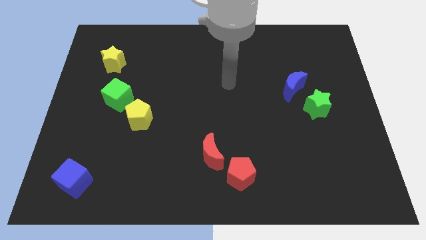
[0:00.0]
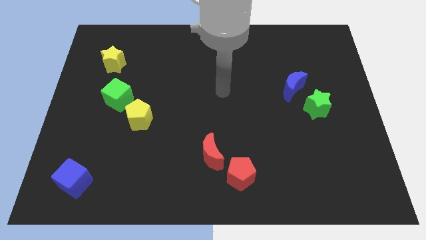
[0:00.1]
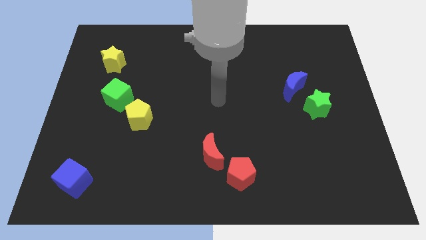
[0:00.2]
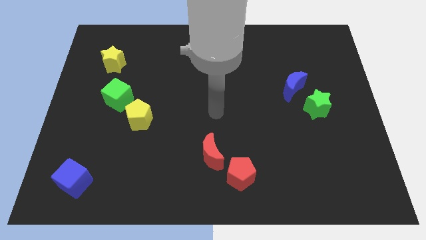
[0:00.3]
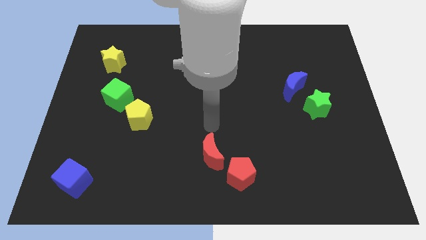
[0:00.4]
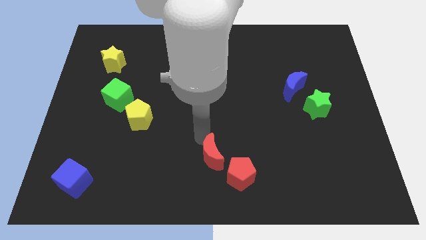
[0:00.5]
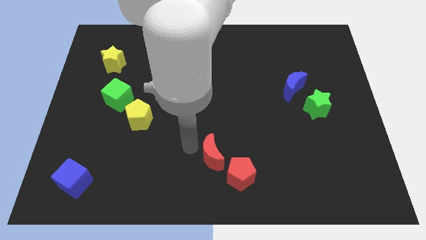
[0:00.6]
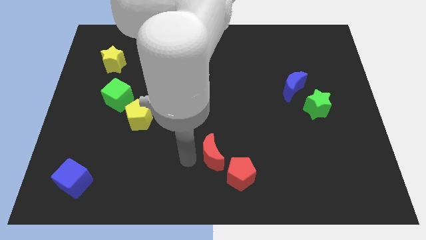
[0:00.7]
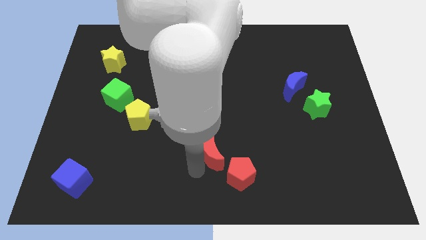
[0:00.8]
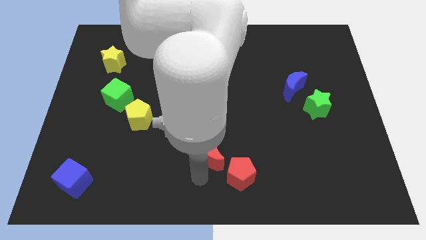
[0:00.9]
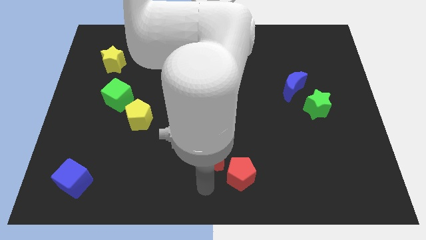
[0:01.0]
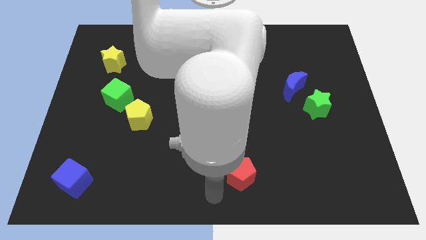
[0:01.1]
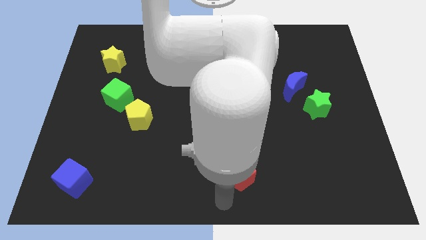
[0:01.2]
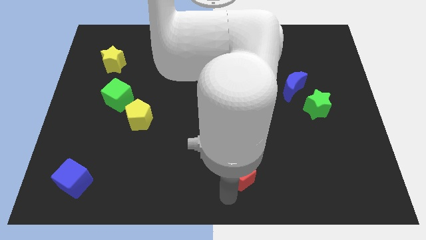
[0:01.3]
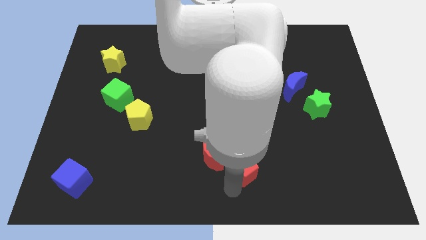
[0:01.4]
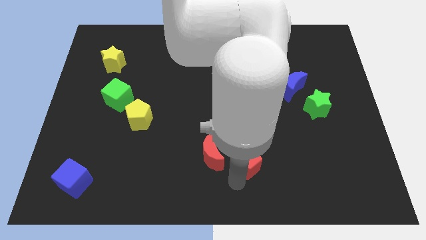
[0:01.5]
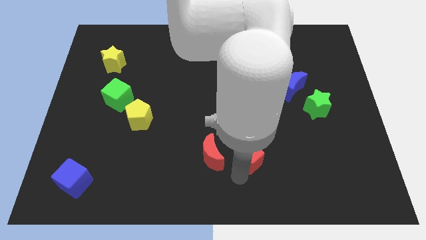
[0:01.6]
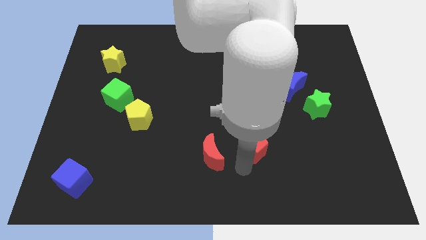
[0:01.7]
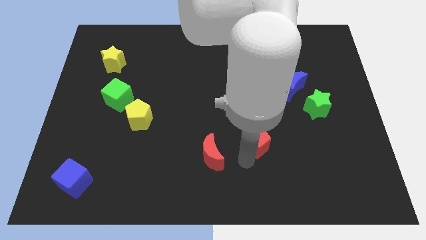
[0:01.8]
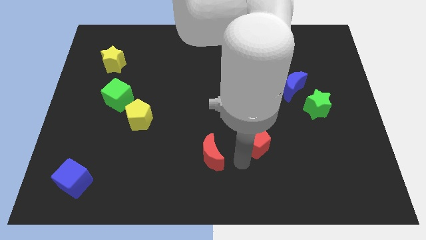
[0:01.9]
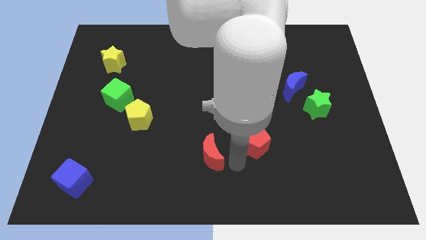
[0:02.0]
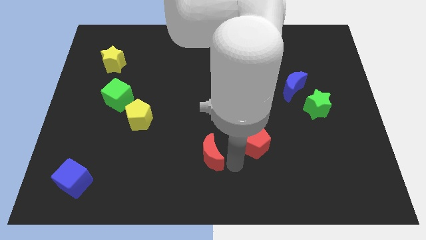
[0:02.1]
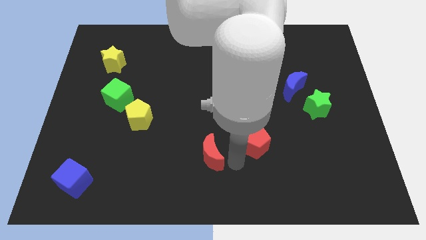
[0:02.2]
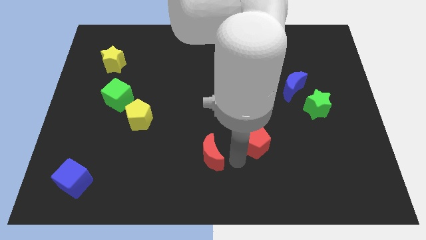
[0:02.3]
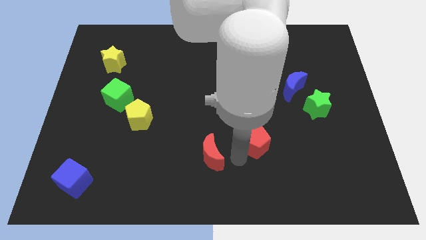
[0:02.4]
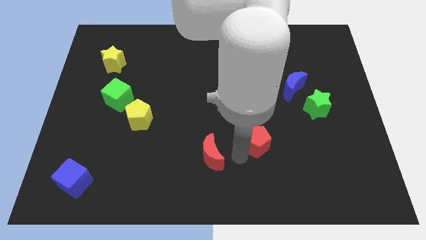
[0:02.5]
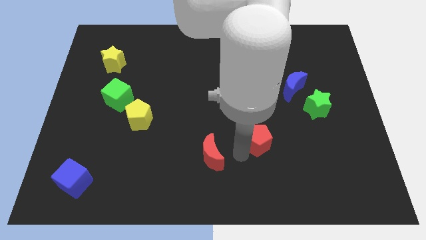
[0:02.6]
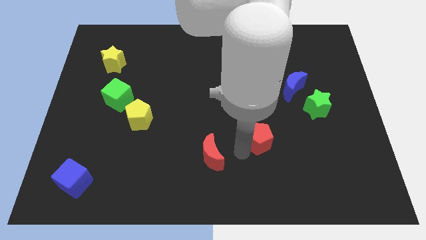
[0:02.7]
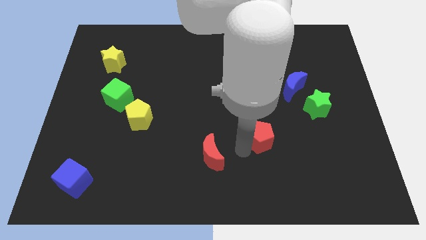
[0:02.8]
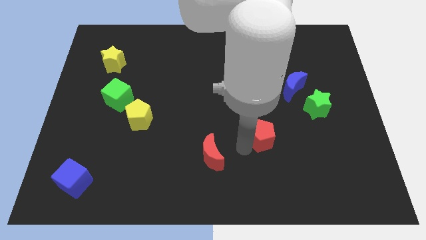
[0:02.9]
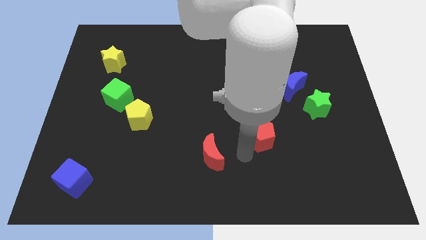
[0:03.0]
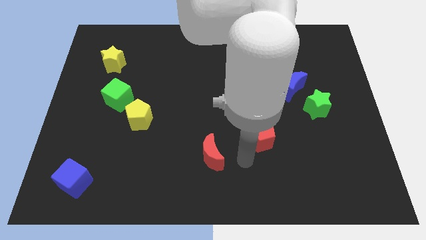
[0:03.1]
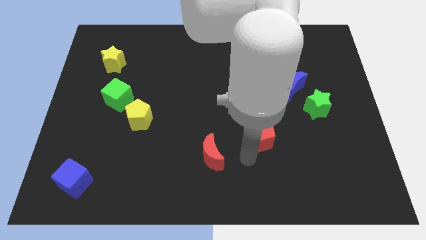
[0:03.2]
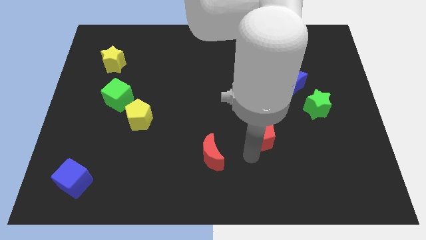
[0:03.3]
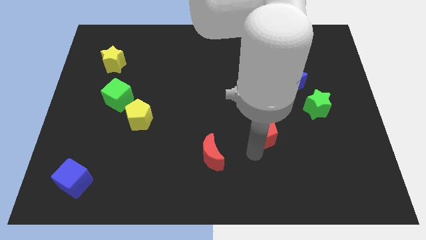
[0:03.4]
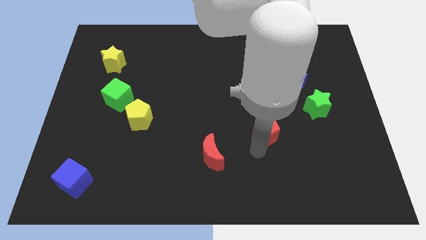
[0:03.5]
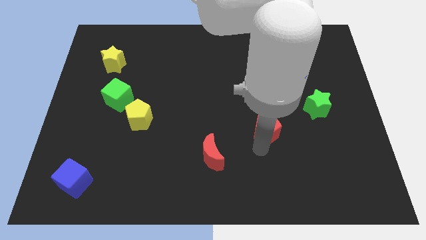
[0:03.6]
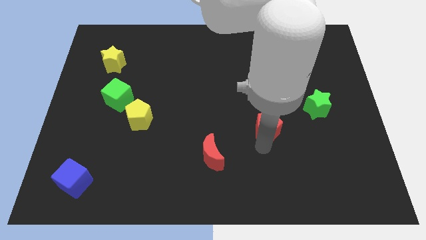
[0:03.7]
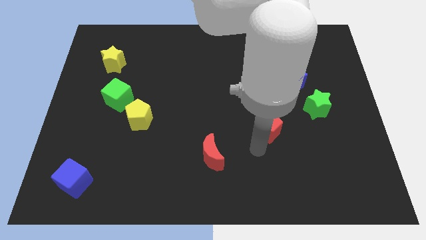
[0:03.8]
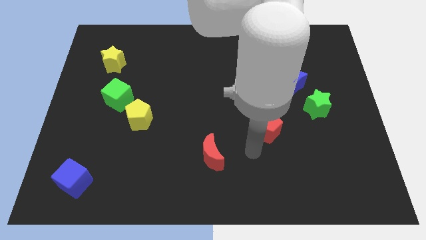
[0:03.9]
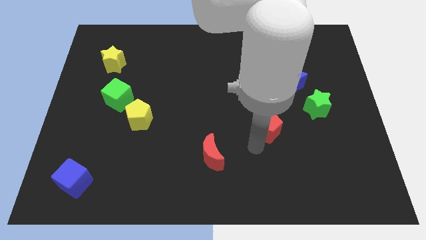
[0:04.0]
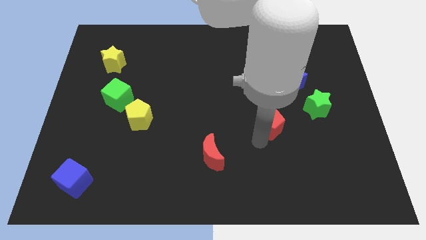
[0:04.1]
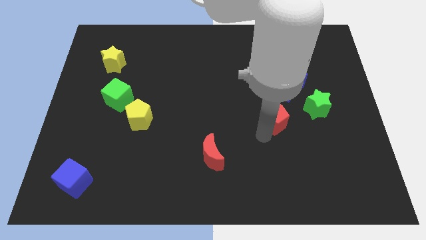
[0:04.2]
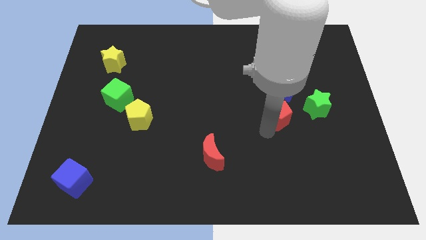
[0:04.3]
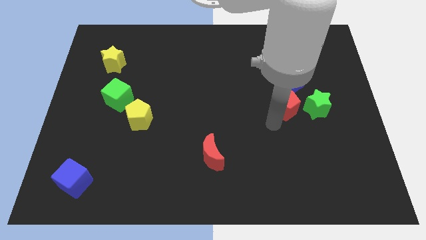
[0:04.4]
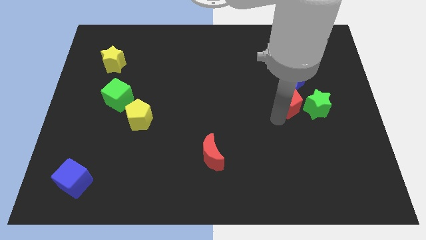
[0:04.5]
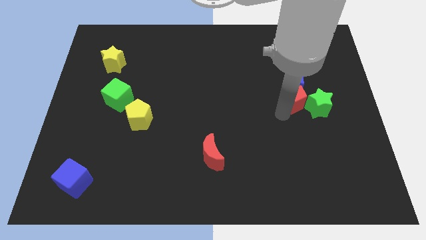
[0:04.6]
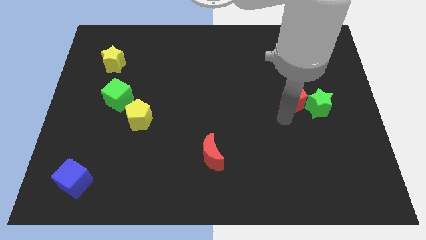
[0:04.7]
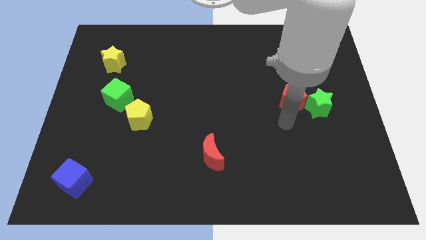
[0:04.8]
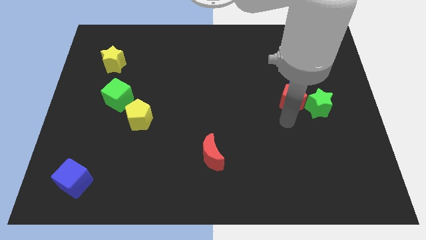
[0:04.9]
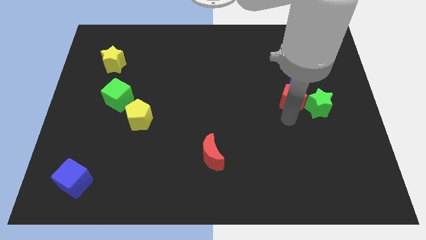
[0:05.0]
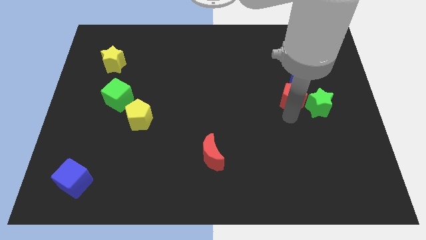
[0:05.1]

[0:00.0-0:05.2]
slide the red pentagon towards the blue moon

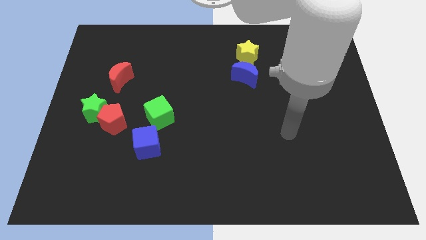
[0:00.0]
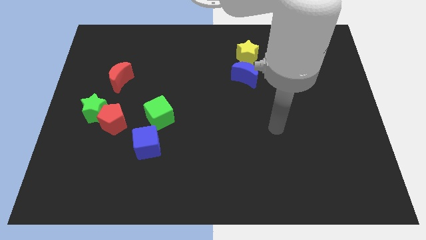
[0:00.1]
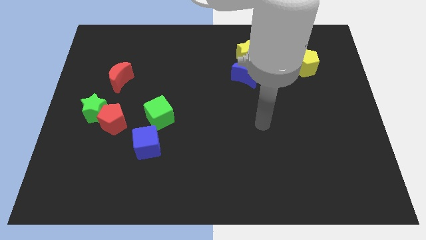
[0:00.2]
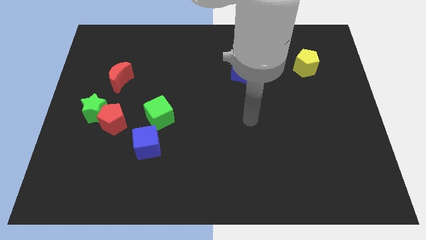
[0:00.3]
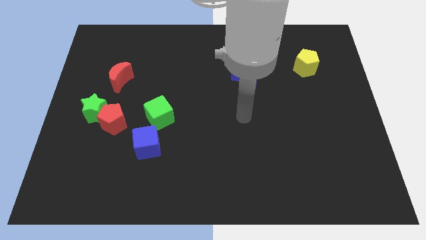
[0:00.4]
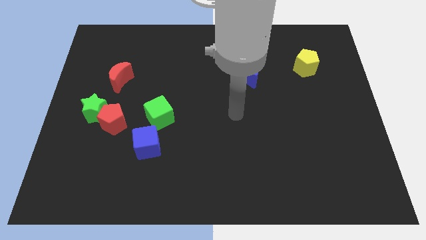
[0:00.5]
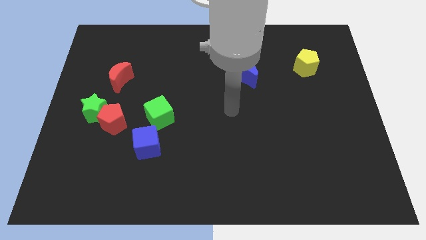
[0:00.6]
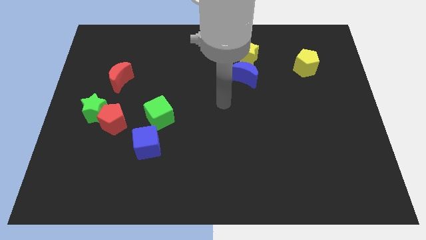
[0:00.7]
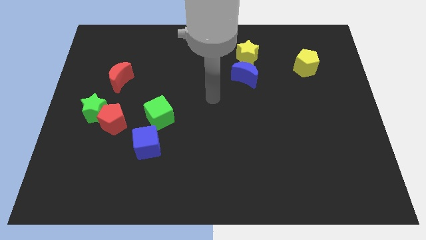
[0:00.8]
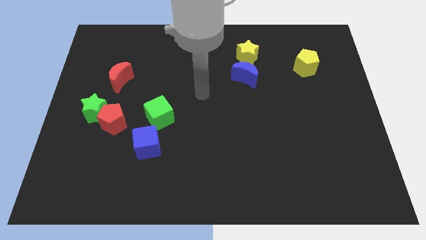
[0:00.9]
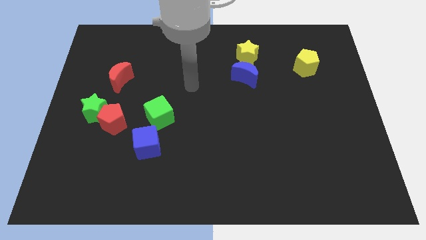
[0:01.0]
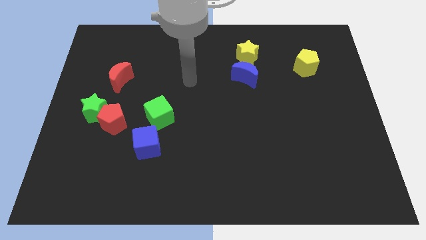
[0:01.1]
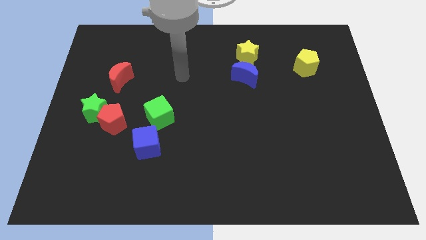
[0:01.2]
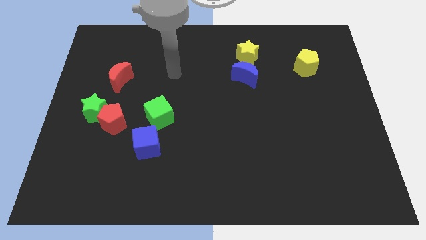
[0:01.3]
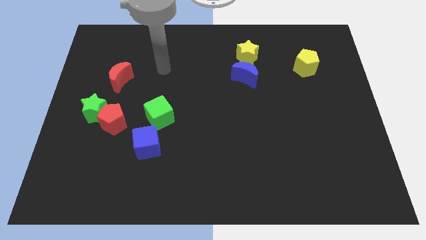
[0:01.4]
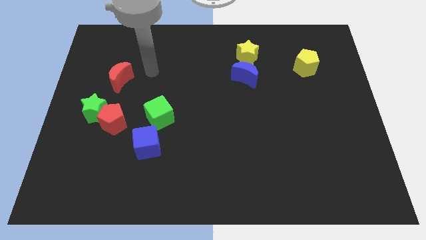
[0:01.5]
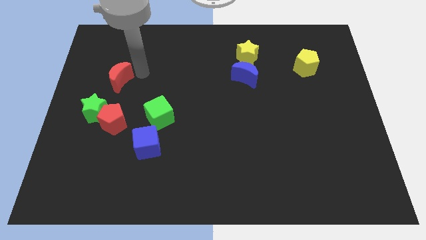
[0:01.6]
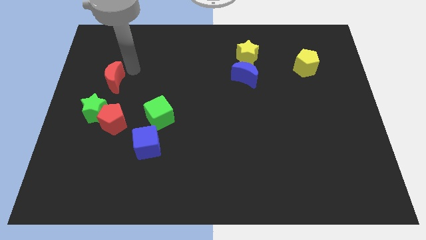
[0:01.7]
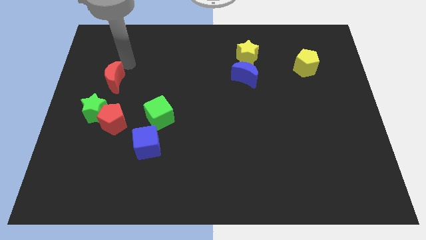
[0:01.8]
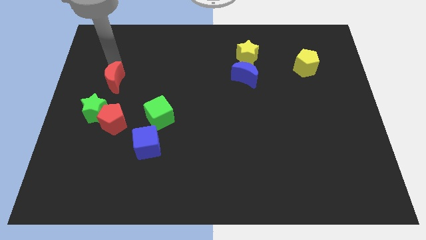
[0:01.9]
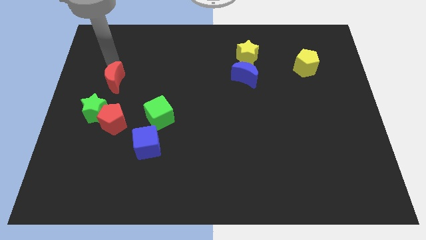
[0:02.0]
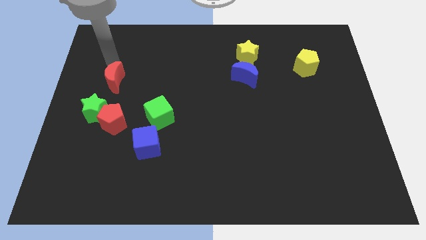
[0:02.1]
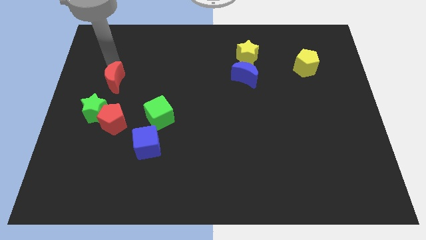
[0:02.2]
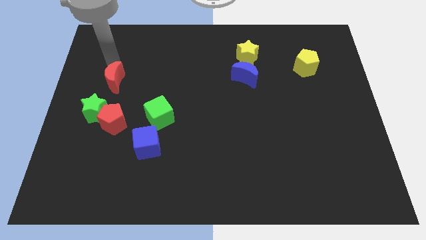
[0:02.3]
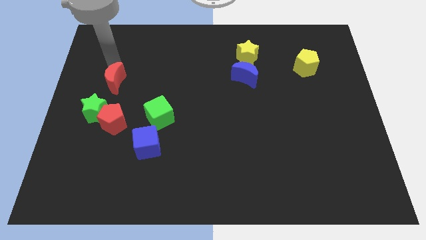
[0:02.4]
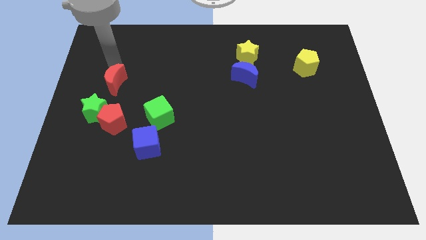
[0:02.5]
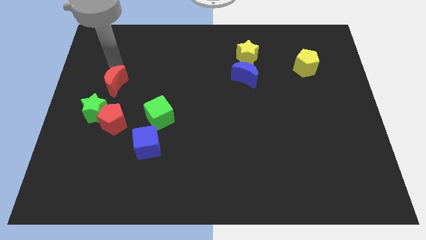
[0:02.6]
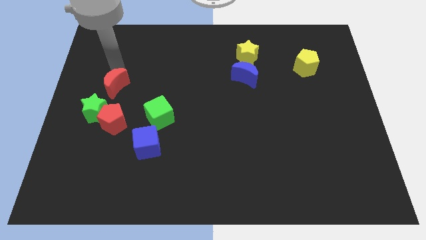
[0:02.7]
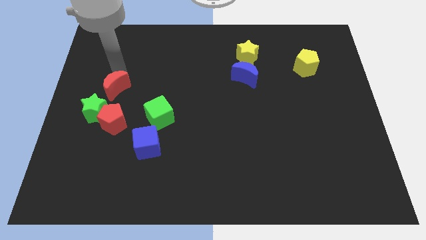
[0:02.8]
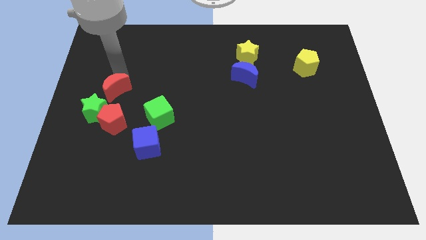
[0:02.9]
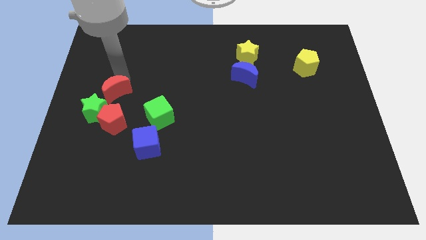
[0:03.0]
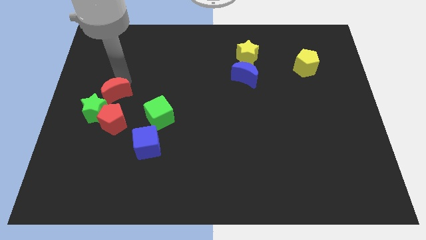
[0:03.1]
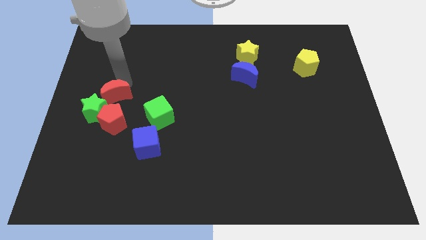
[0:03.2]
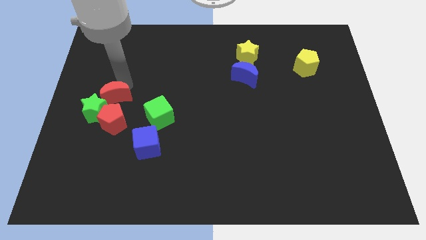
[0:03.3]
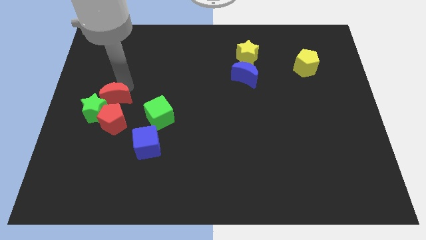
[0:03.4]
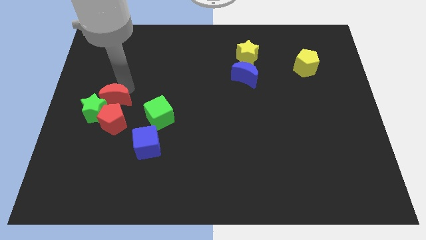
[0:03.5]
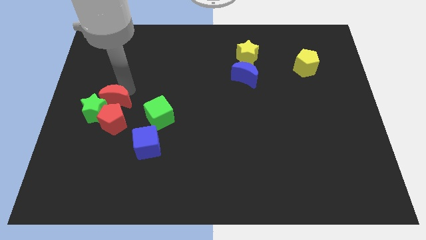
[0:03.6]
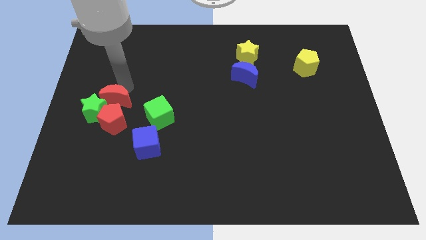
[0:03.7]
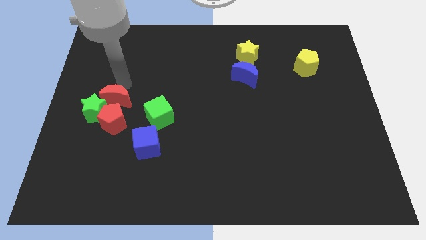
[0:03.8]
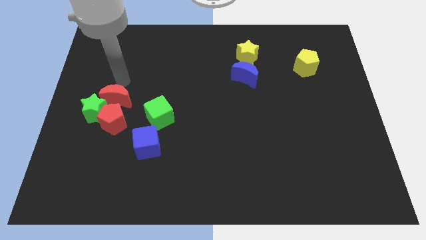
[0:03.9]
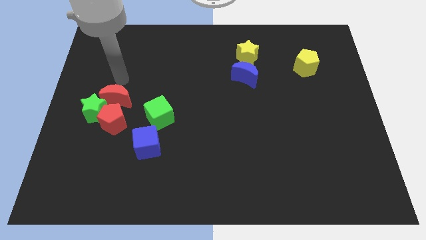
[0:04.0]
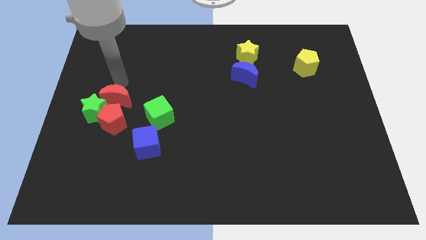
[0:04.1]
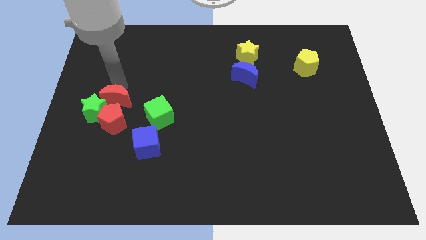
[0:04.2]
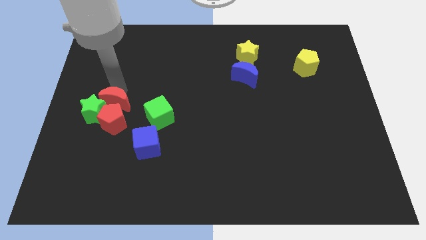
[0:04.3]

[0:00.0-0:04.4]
put the red moon towards the red pentagon
